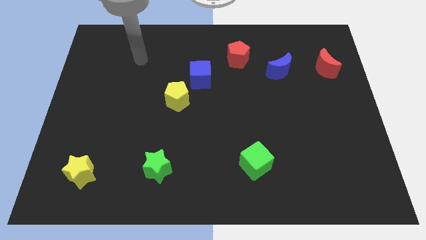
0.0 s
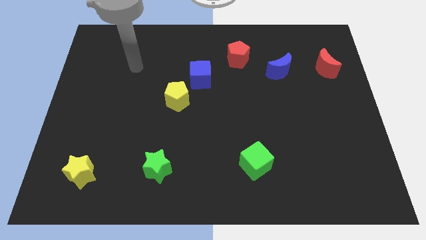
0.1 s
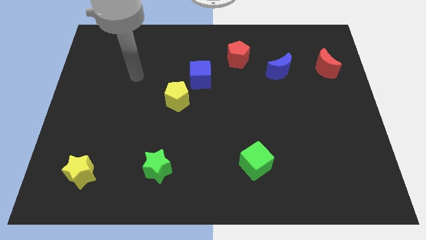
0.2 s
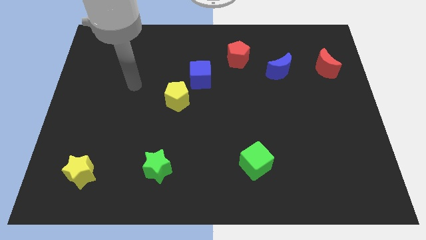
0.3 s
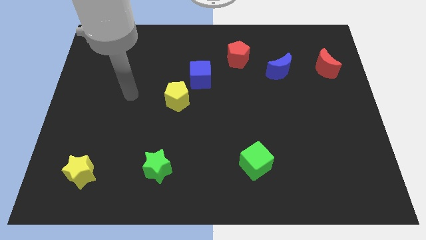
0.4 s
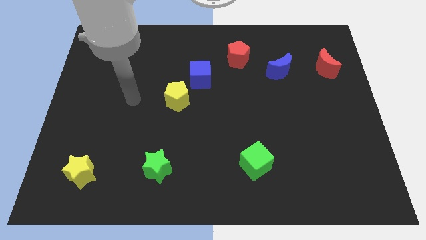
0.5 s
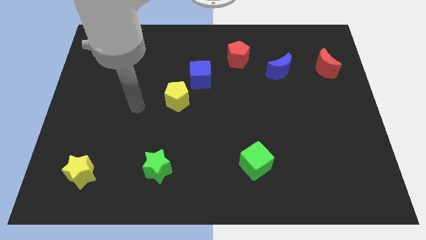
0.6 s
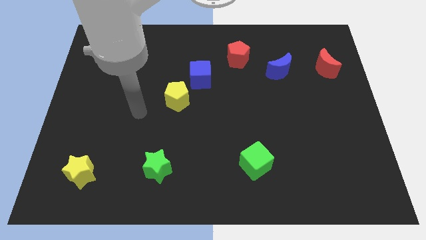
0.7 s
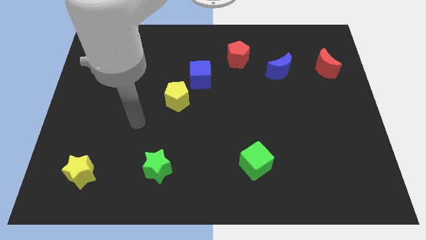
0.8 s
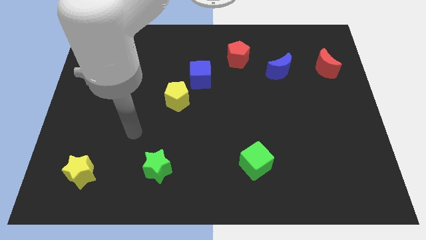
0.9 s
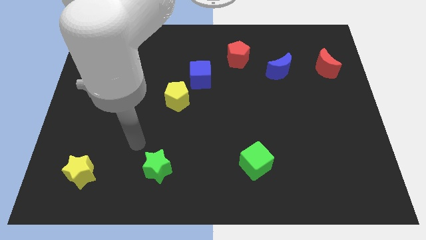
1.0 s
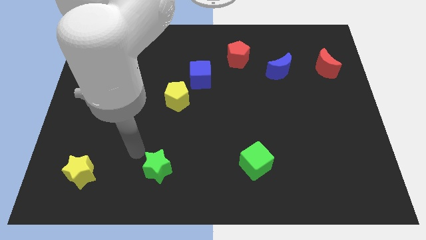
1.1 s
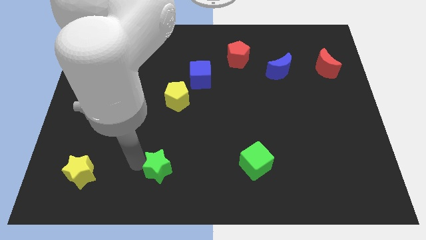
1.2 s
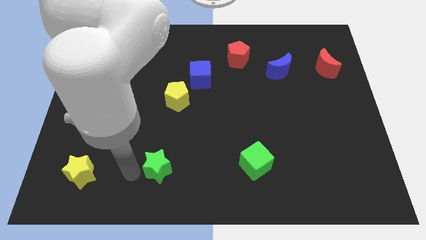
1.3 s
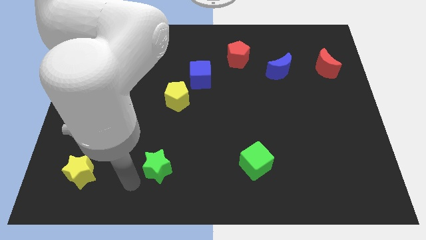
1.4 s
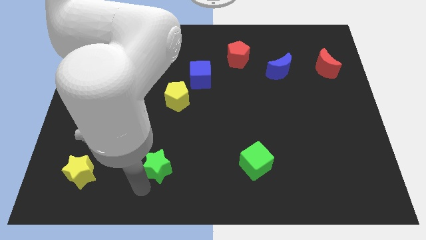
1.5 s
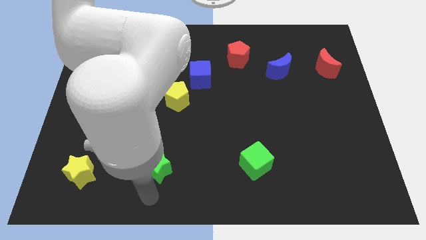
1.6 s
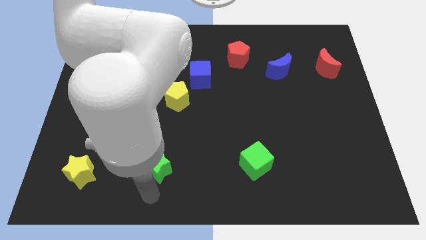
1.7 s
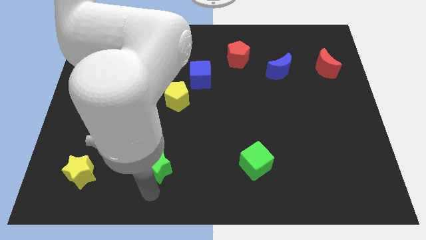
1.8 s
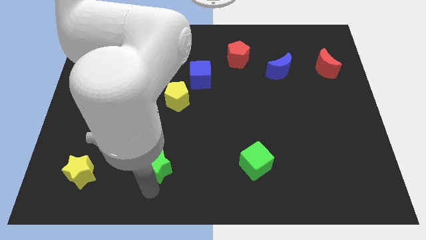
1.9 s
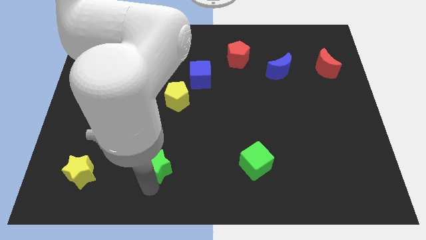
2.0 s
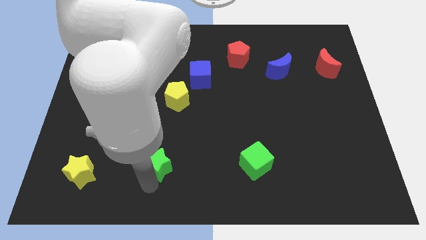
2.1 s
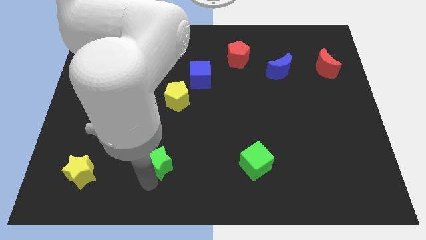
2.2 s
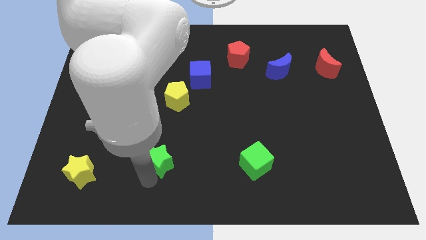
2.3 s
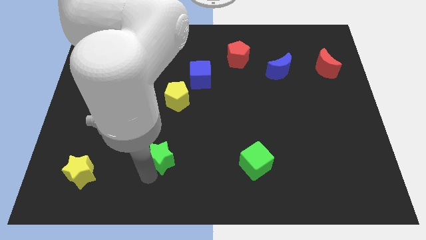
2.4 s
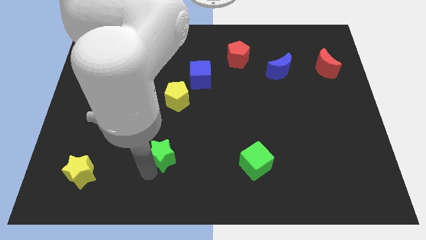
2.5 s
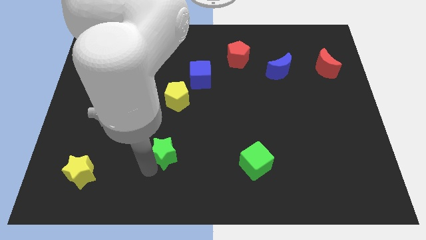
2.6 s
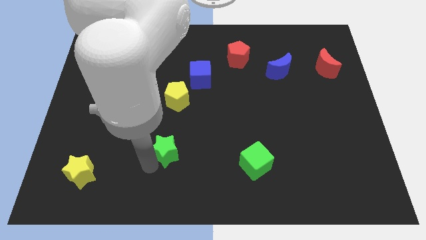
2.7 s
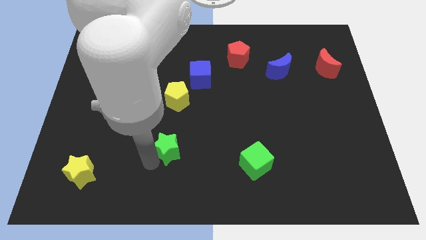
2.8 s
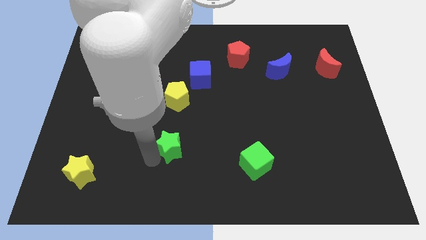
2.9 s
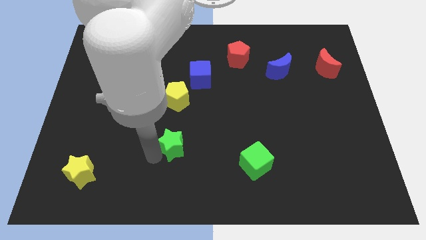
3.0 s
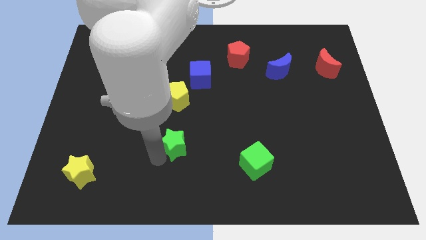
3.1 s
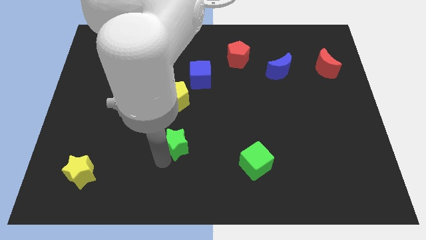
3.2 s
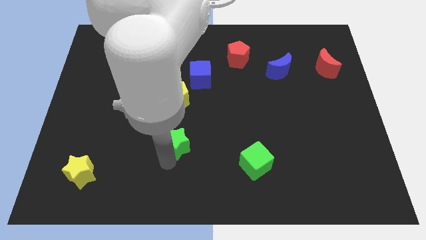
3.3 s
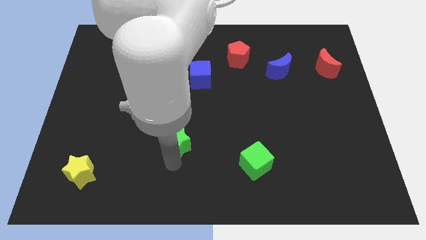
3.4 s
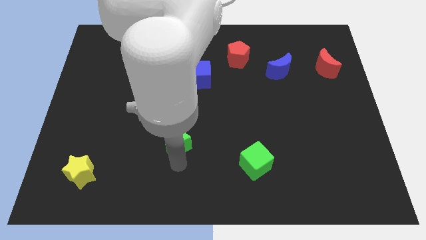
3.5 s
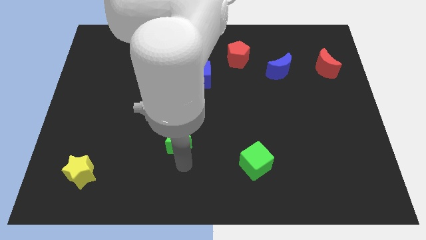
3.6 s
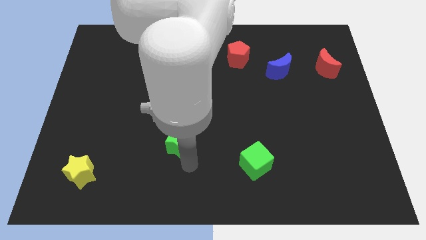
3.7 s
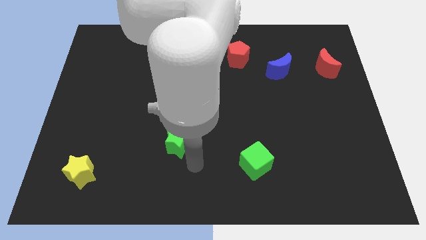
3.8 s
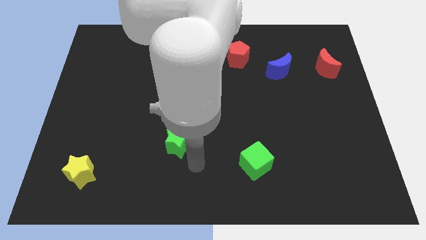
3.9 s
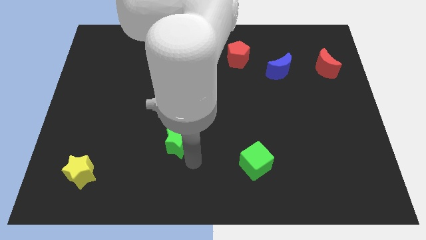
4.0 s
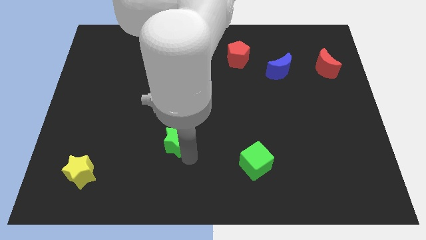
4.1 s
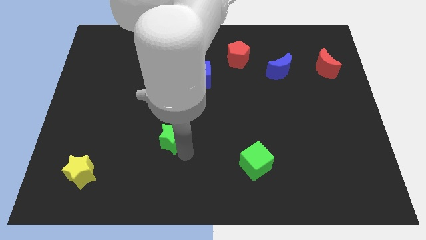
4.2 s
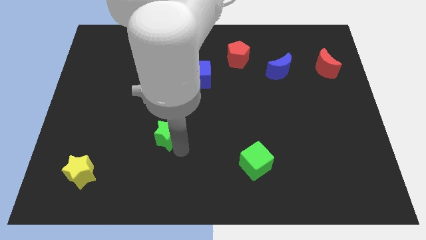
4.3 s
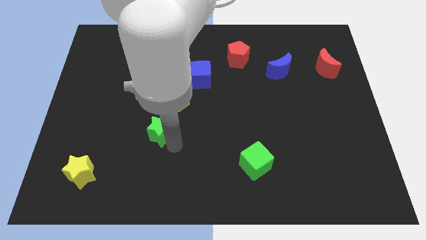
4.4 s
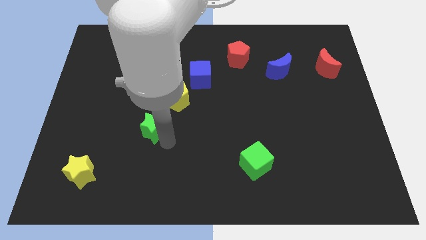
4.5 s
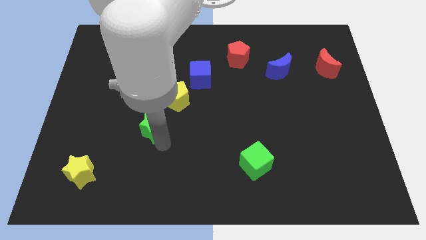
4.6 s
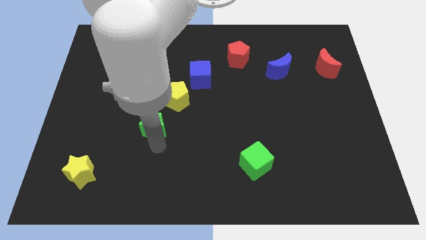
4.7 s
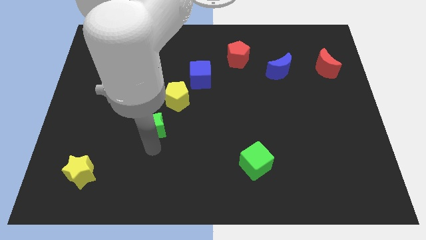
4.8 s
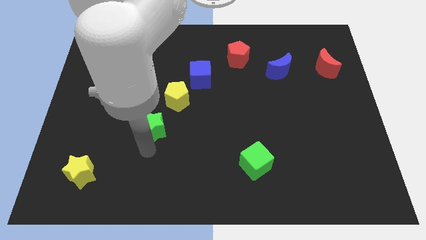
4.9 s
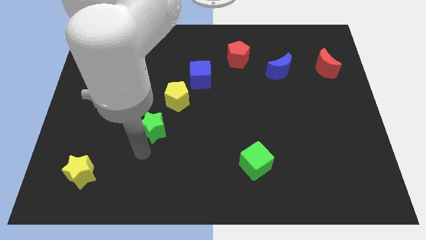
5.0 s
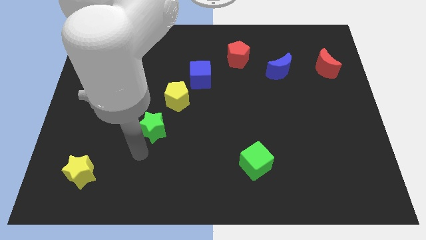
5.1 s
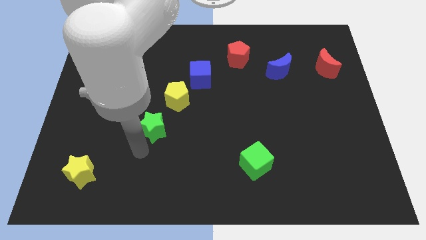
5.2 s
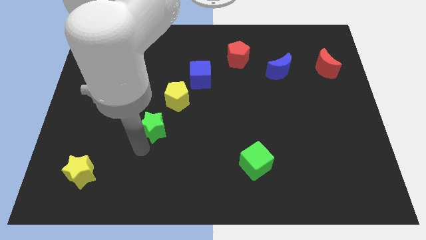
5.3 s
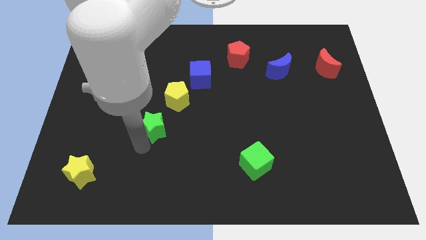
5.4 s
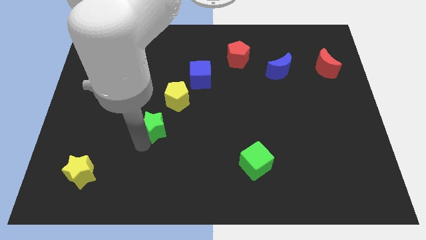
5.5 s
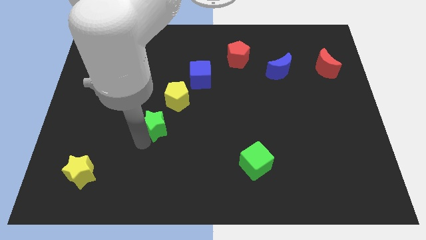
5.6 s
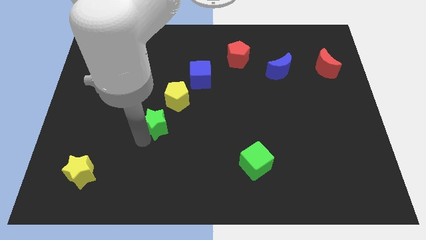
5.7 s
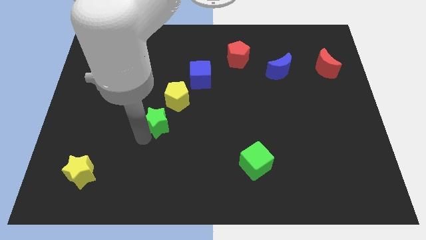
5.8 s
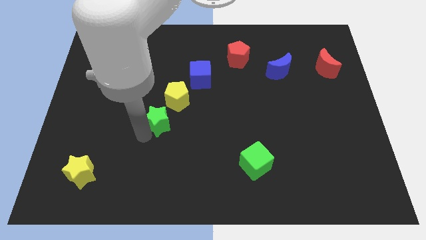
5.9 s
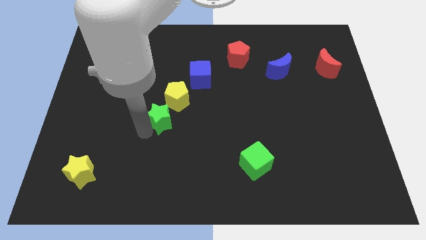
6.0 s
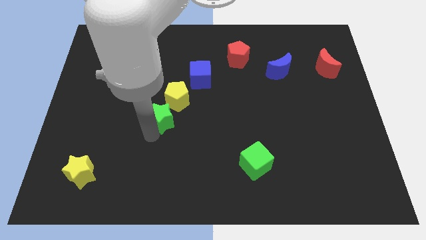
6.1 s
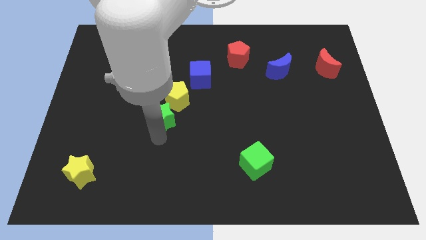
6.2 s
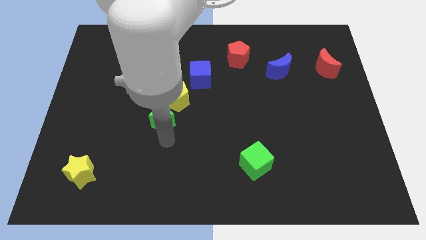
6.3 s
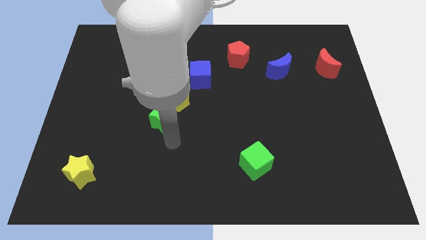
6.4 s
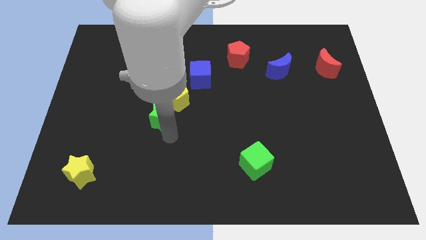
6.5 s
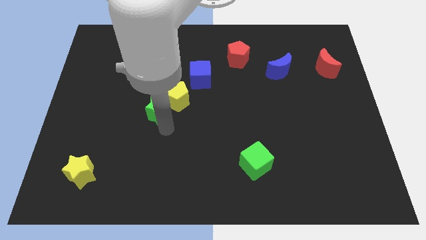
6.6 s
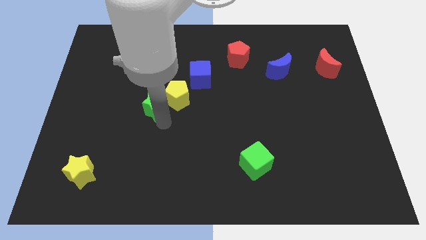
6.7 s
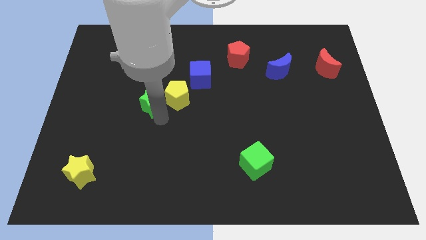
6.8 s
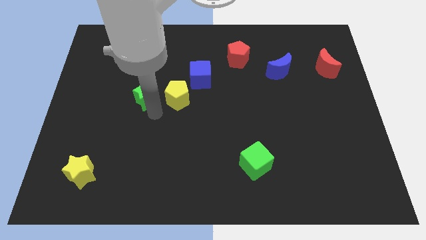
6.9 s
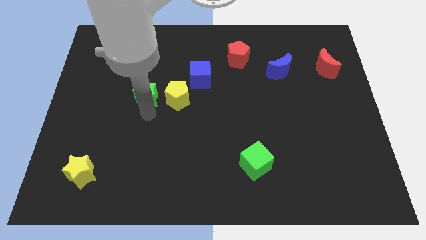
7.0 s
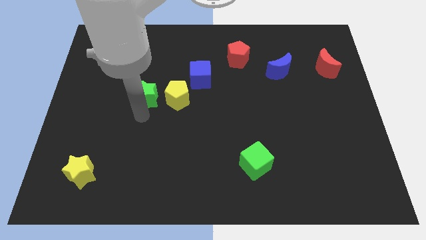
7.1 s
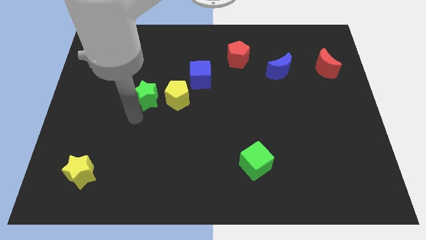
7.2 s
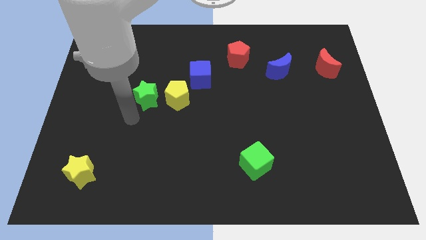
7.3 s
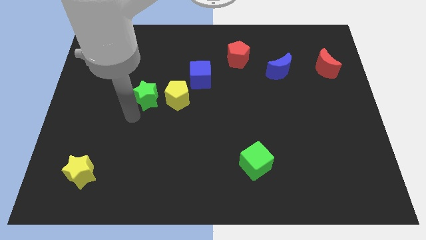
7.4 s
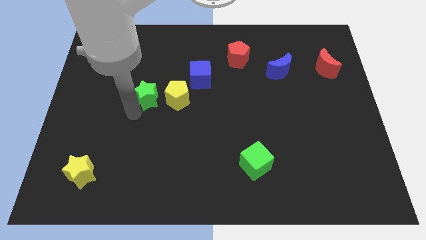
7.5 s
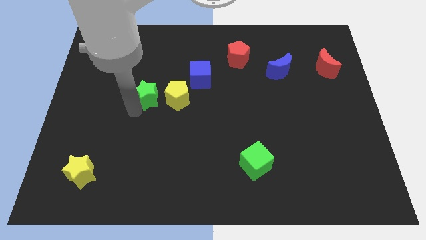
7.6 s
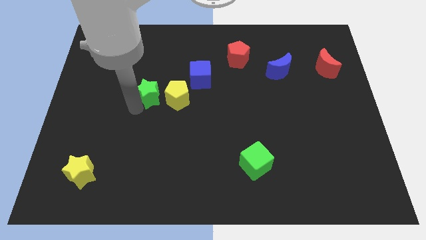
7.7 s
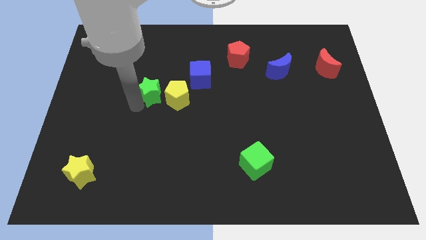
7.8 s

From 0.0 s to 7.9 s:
push the green star upwards

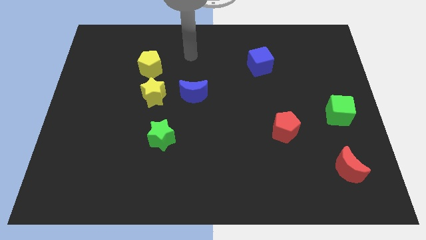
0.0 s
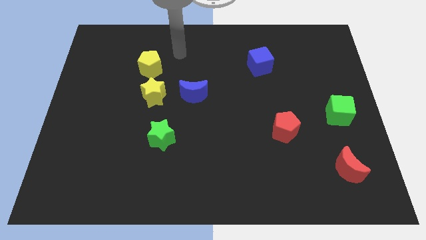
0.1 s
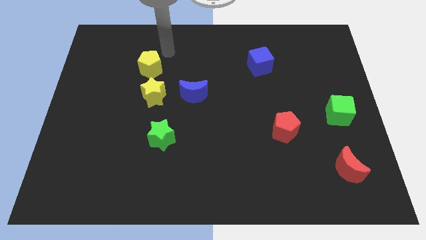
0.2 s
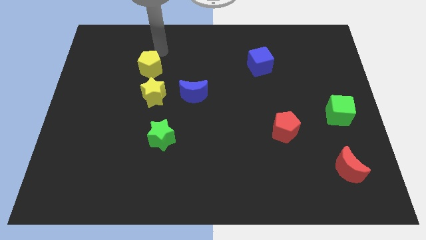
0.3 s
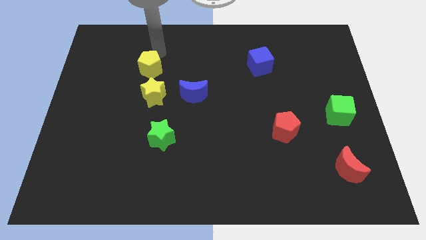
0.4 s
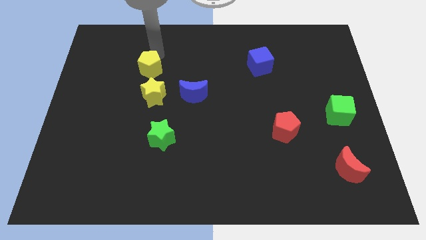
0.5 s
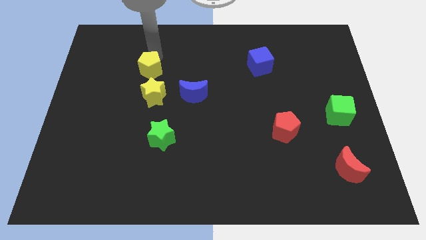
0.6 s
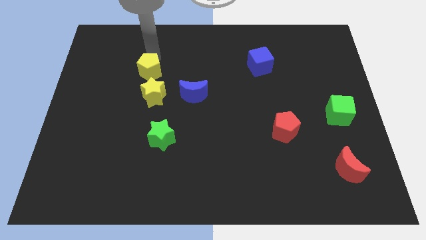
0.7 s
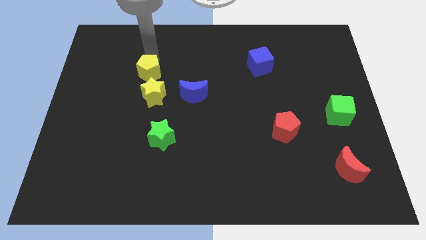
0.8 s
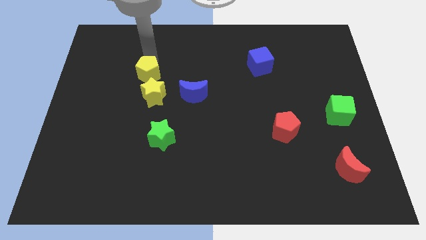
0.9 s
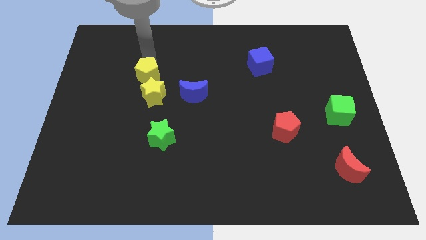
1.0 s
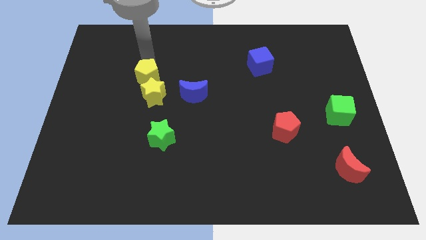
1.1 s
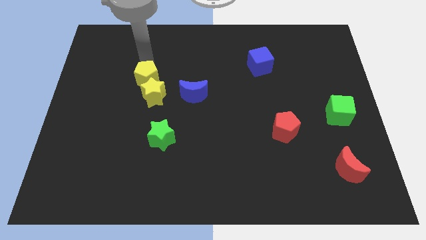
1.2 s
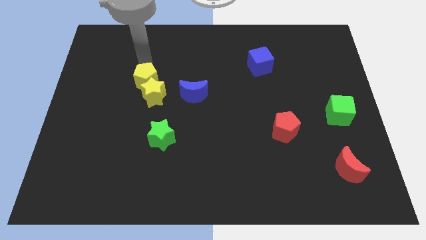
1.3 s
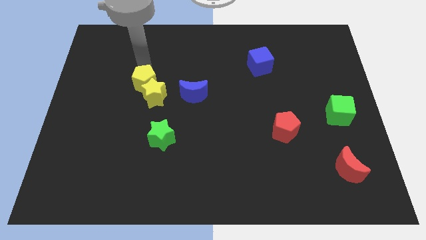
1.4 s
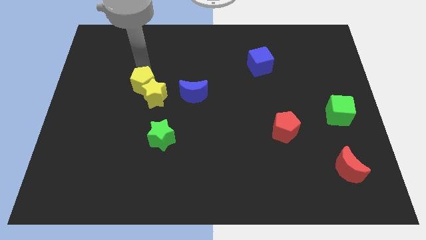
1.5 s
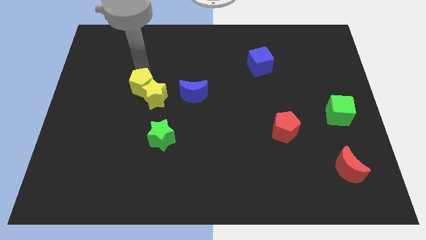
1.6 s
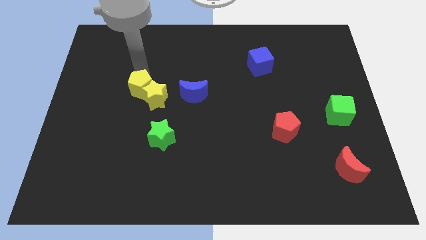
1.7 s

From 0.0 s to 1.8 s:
slightly push the yellow pentagon downwards
